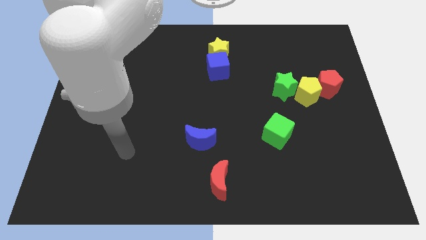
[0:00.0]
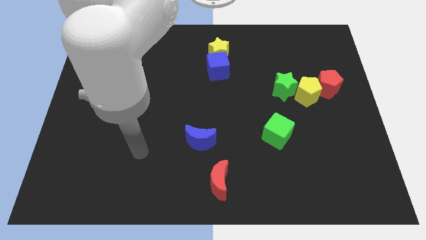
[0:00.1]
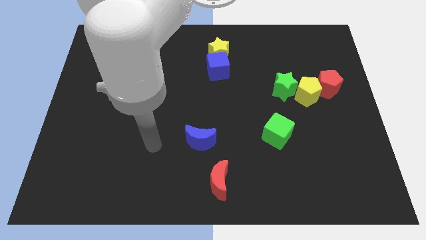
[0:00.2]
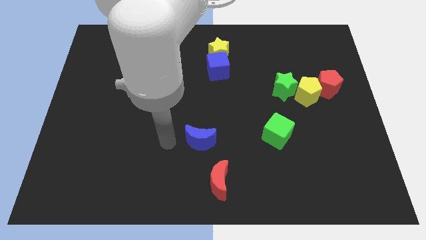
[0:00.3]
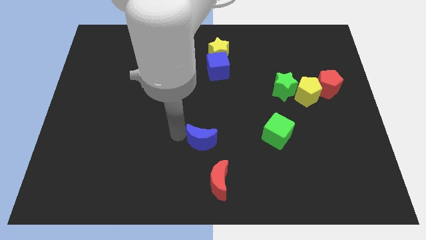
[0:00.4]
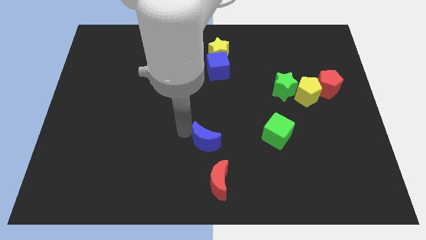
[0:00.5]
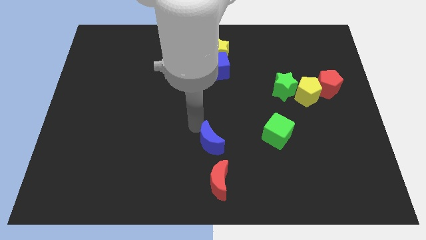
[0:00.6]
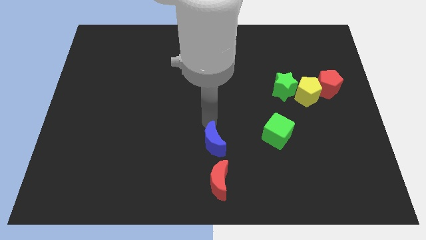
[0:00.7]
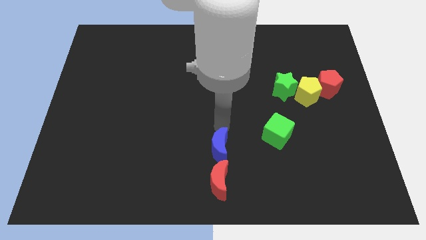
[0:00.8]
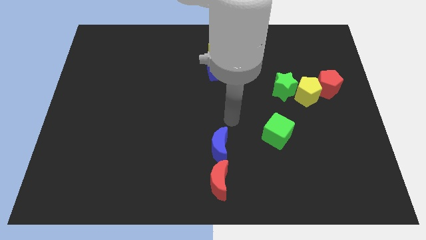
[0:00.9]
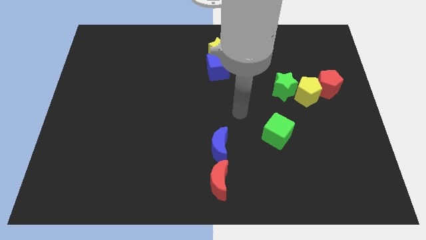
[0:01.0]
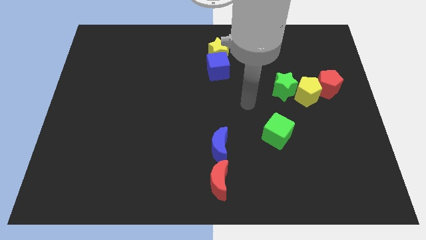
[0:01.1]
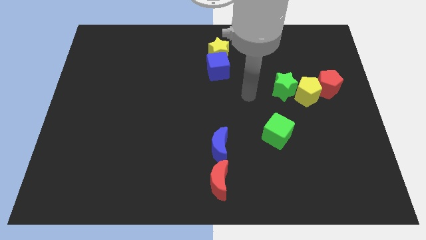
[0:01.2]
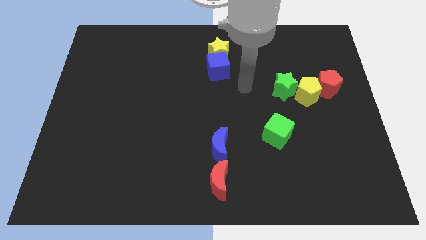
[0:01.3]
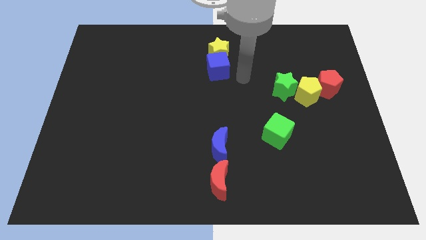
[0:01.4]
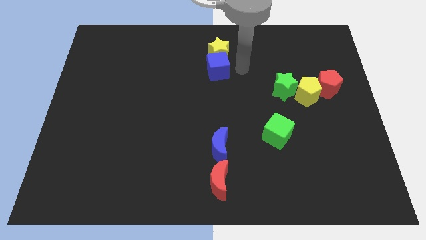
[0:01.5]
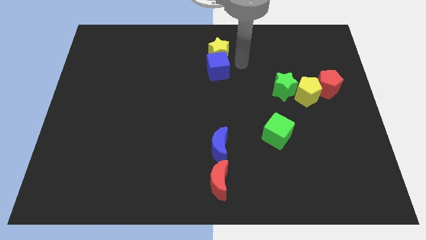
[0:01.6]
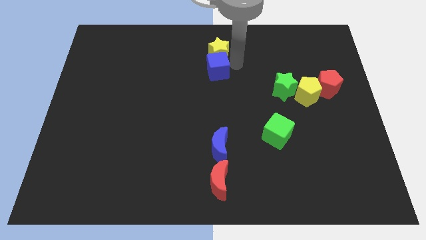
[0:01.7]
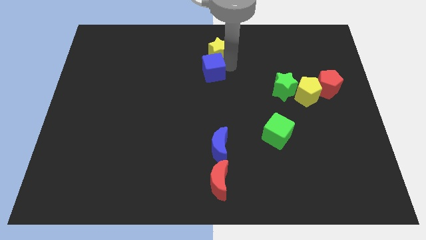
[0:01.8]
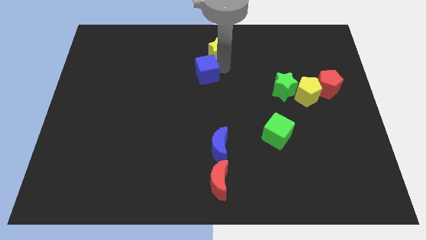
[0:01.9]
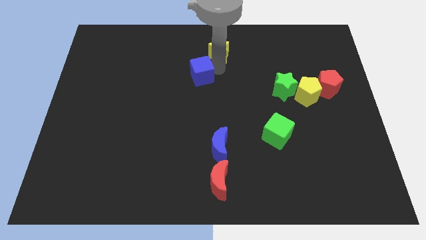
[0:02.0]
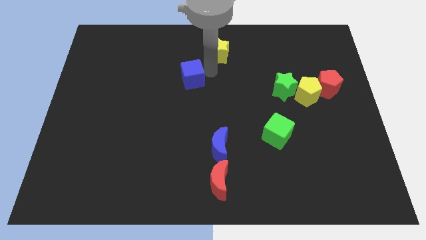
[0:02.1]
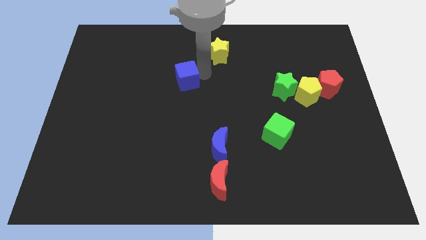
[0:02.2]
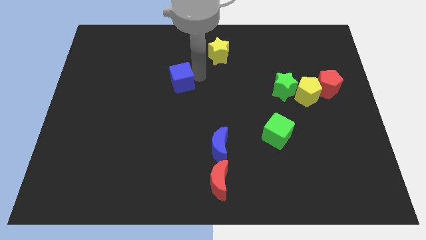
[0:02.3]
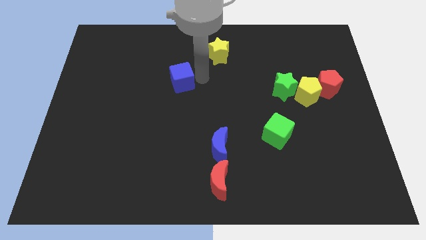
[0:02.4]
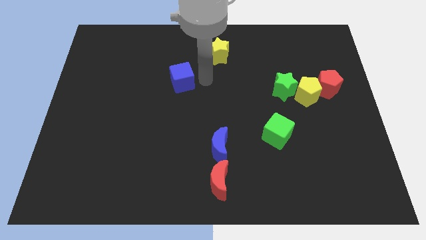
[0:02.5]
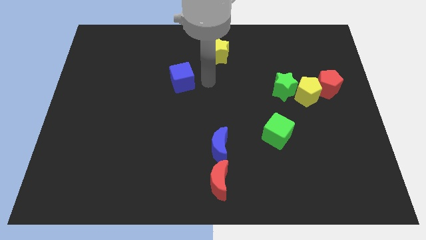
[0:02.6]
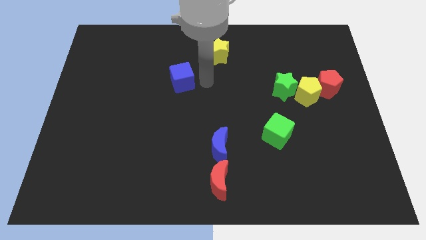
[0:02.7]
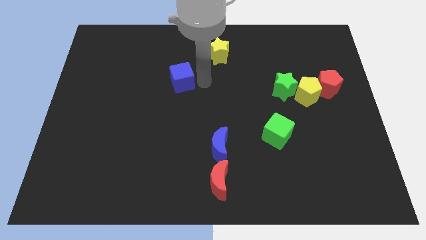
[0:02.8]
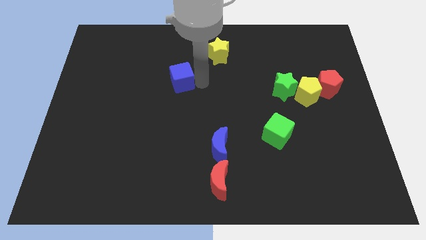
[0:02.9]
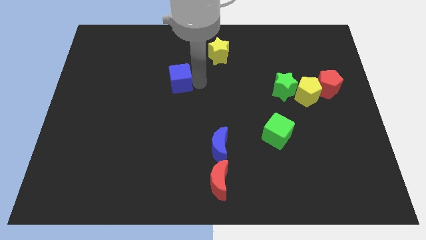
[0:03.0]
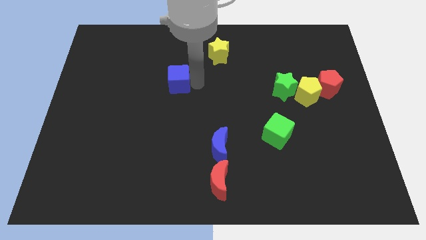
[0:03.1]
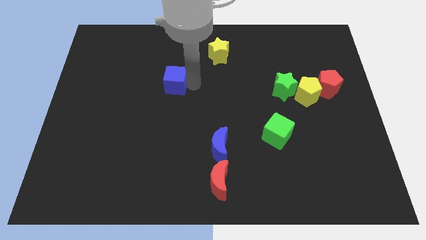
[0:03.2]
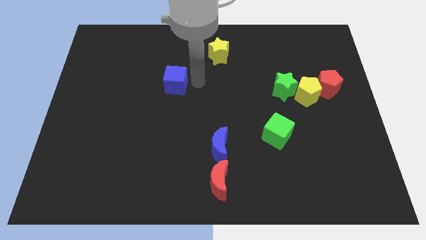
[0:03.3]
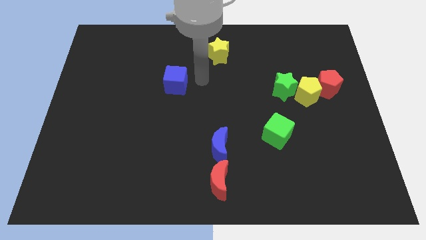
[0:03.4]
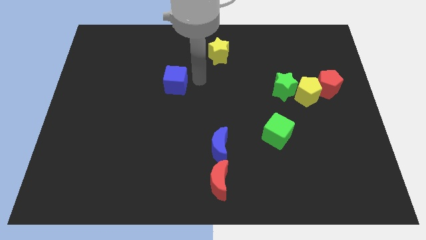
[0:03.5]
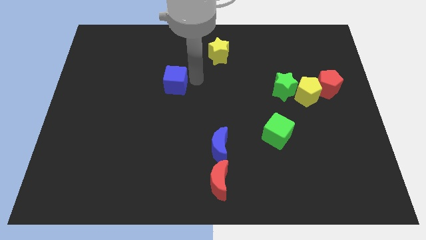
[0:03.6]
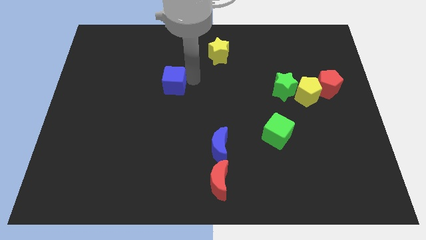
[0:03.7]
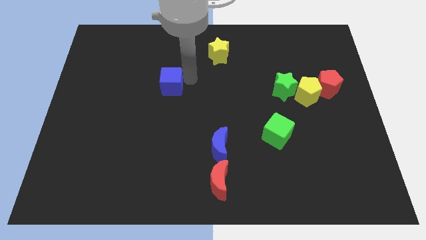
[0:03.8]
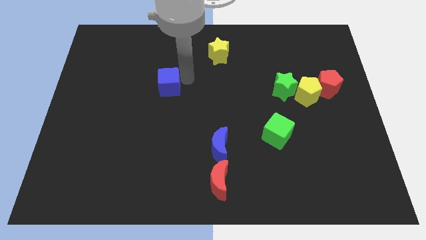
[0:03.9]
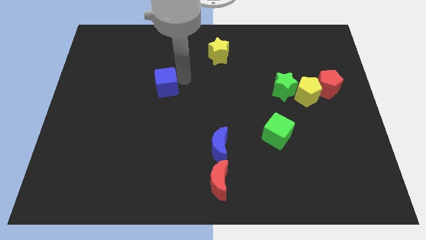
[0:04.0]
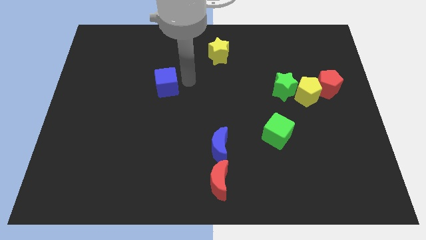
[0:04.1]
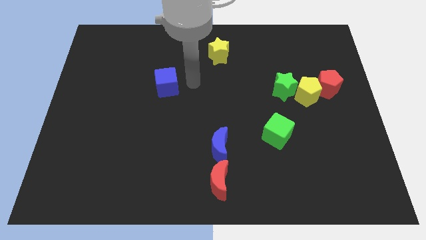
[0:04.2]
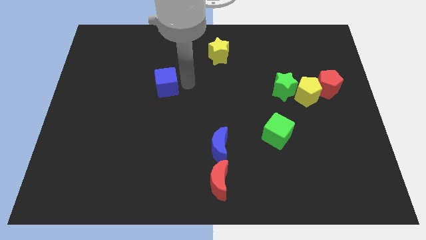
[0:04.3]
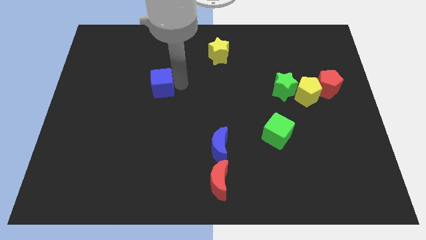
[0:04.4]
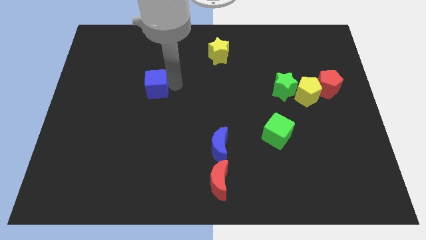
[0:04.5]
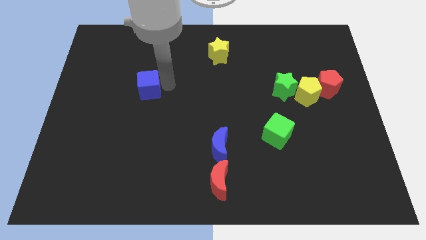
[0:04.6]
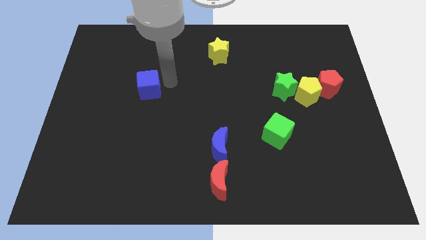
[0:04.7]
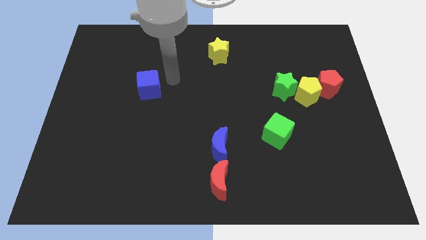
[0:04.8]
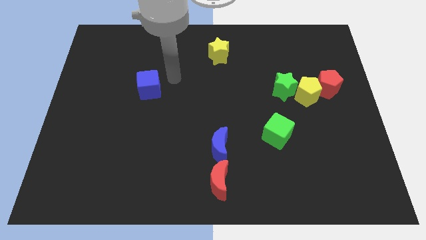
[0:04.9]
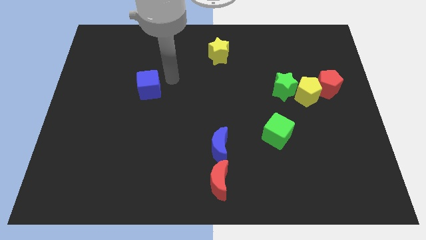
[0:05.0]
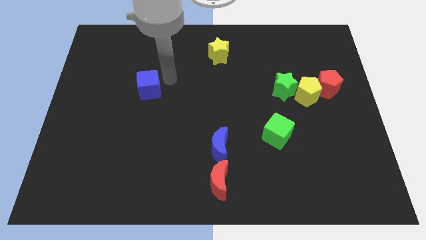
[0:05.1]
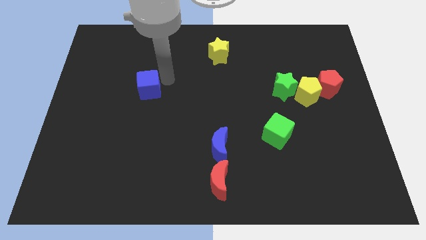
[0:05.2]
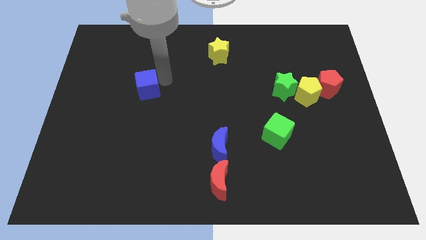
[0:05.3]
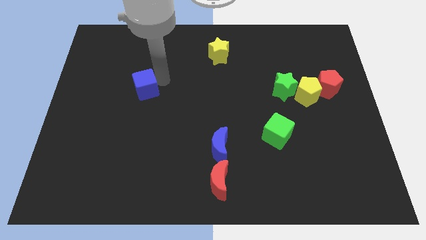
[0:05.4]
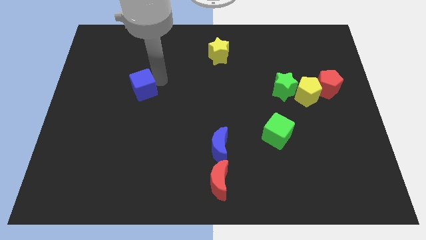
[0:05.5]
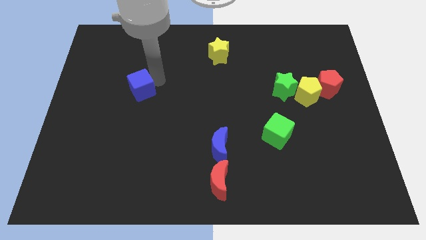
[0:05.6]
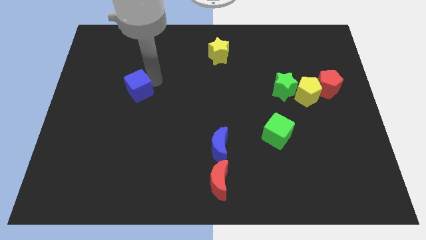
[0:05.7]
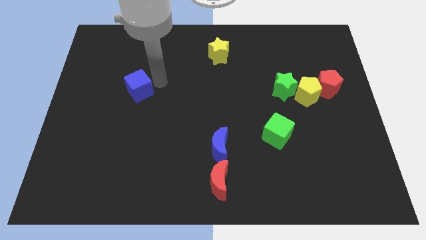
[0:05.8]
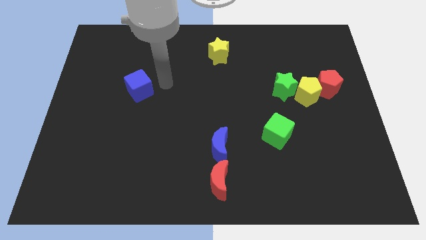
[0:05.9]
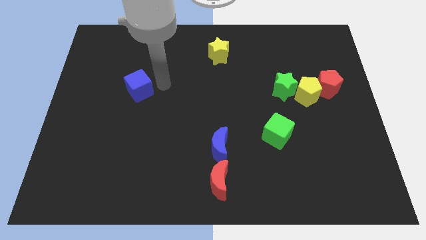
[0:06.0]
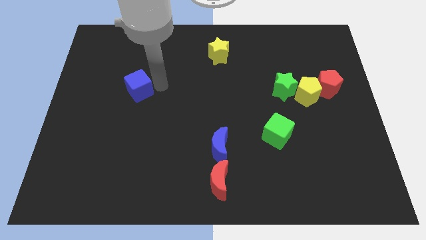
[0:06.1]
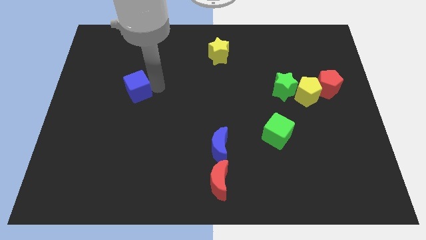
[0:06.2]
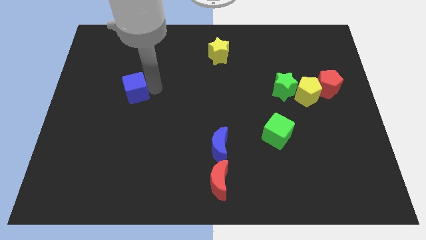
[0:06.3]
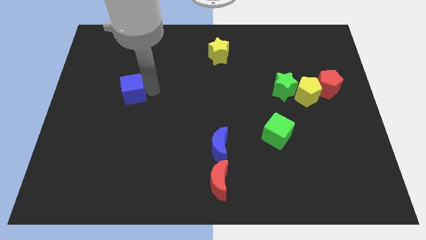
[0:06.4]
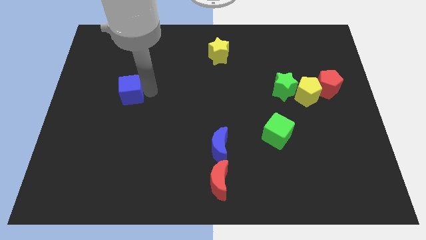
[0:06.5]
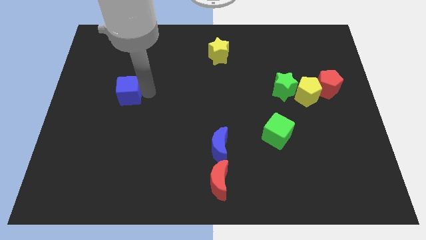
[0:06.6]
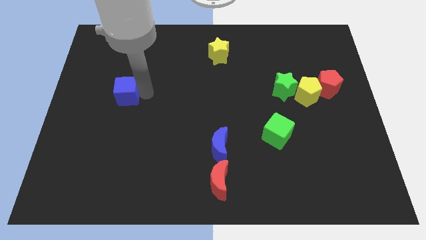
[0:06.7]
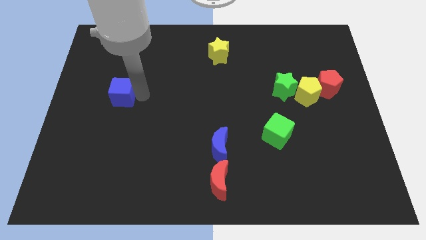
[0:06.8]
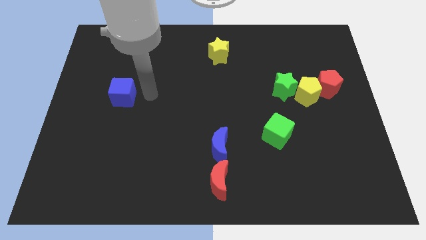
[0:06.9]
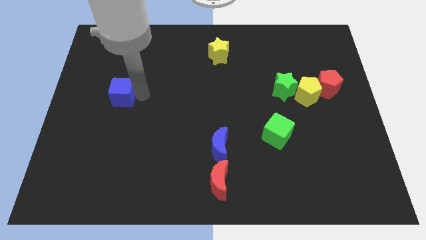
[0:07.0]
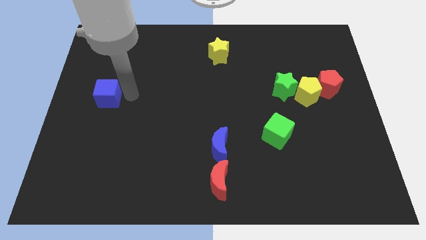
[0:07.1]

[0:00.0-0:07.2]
put the blue cube to the left side
